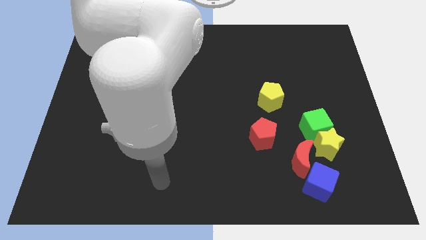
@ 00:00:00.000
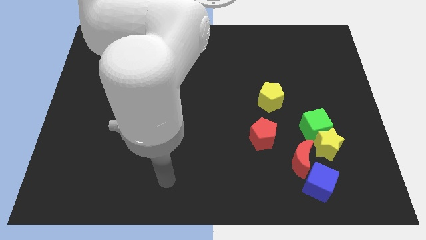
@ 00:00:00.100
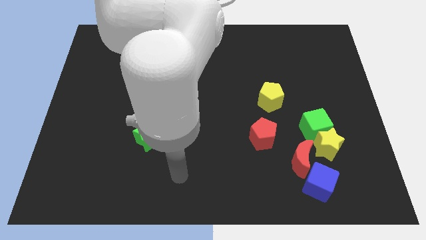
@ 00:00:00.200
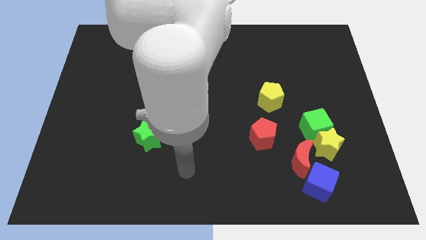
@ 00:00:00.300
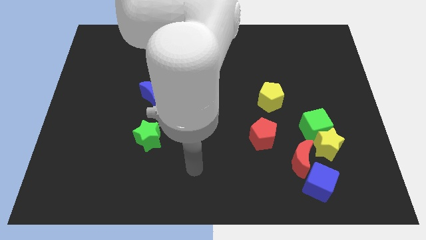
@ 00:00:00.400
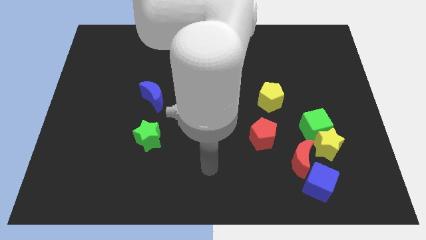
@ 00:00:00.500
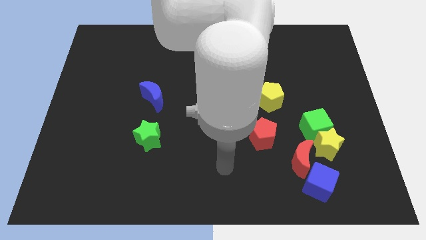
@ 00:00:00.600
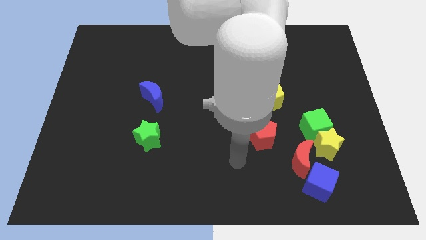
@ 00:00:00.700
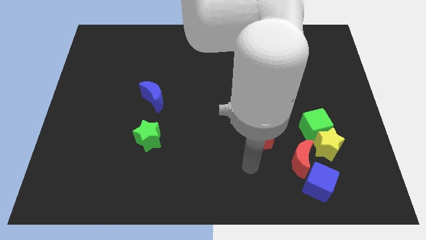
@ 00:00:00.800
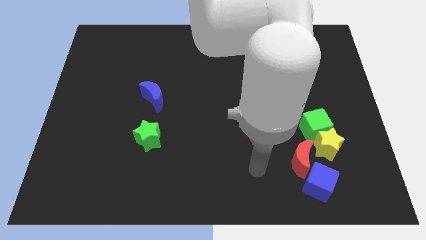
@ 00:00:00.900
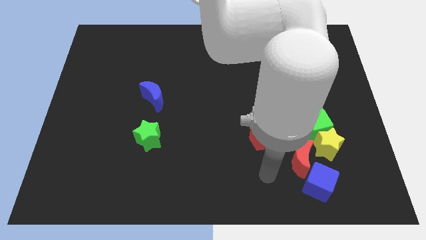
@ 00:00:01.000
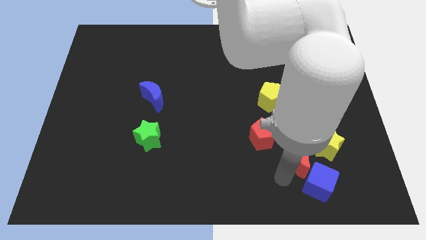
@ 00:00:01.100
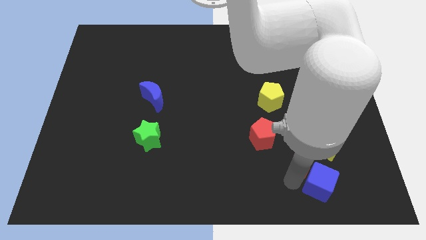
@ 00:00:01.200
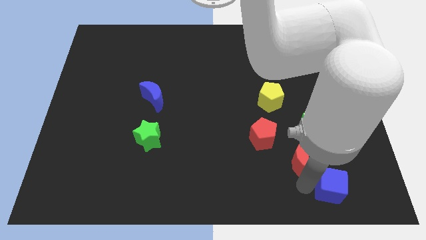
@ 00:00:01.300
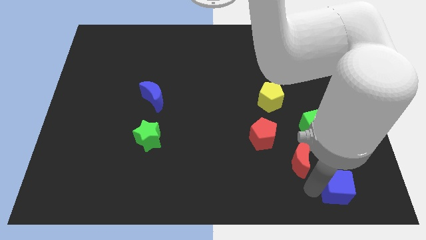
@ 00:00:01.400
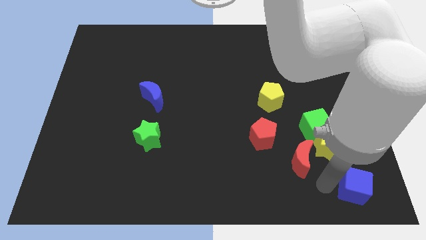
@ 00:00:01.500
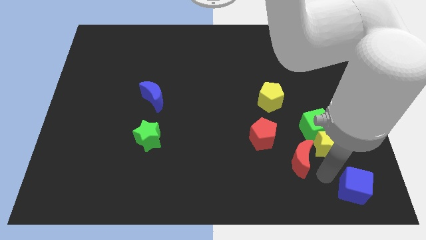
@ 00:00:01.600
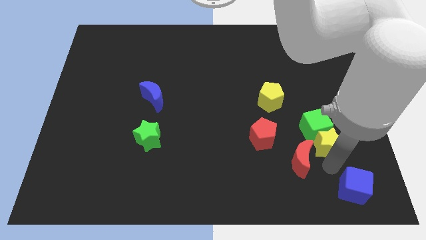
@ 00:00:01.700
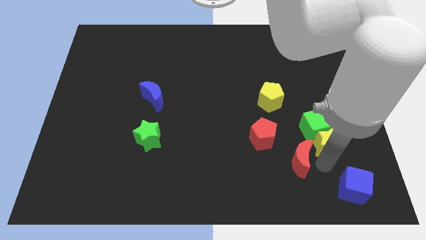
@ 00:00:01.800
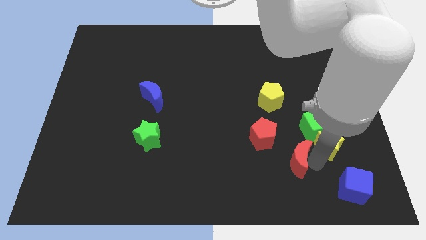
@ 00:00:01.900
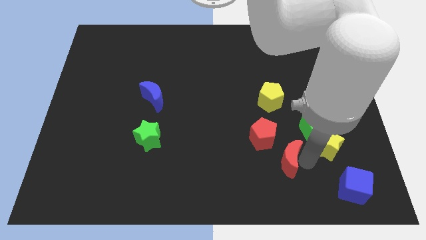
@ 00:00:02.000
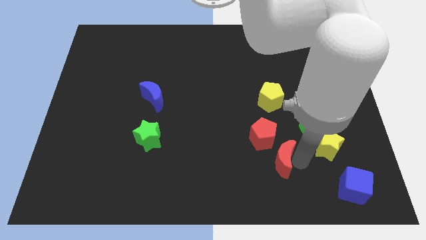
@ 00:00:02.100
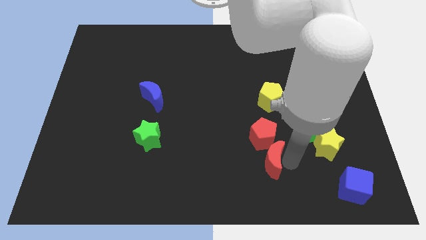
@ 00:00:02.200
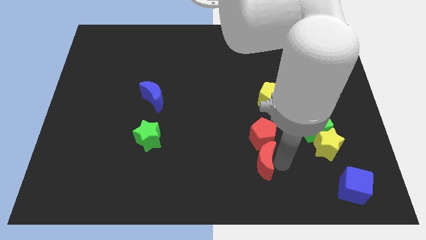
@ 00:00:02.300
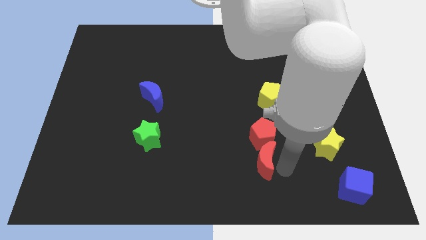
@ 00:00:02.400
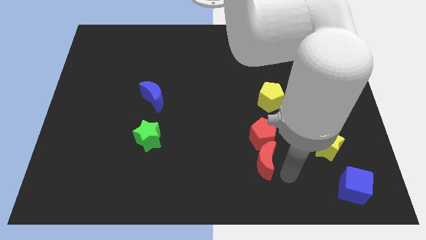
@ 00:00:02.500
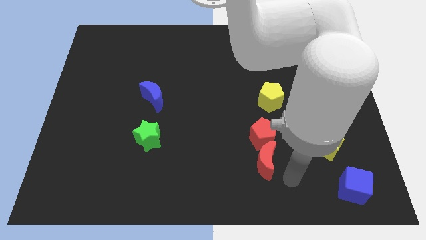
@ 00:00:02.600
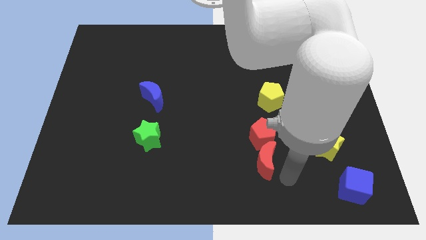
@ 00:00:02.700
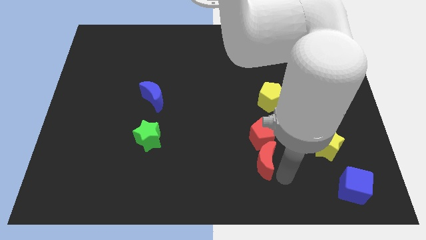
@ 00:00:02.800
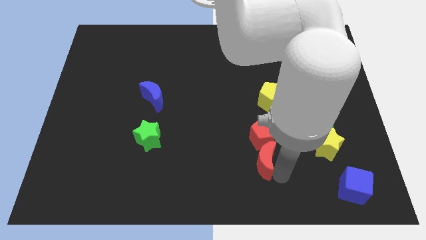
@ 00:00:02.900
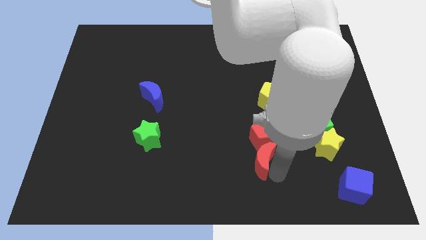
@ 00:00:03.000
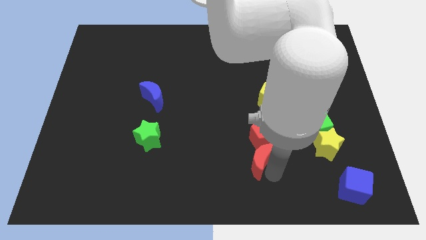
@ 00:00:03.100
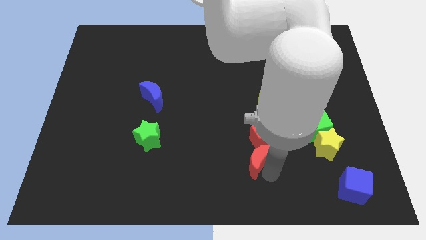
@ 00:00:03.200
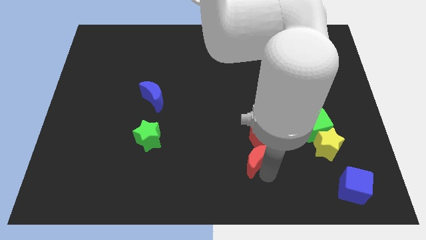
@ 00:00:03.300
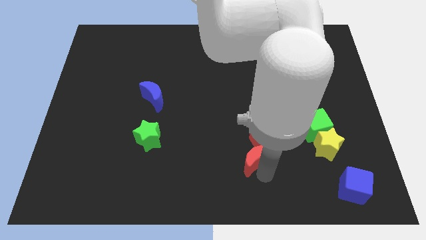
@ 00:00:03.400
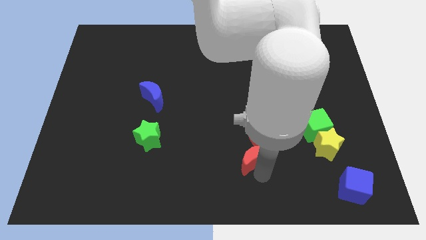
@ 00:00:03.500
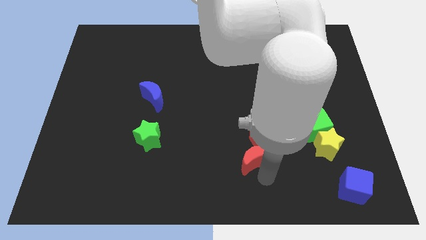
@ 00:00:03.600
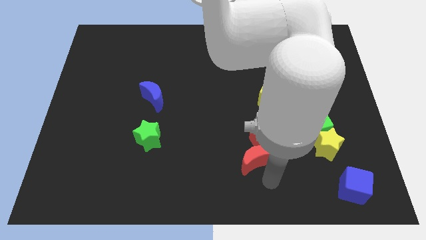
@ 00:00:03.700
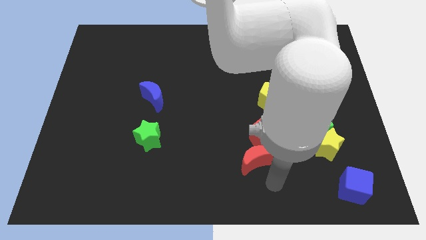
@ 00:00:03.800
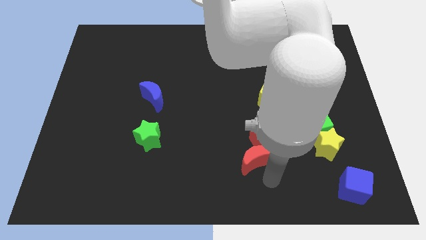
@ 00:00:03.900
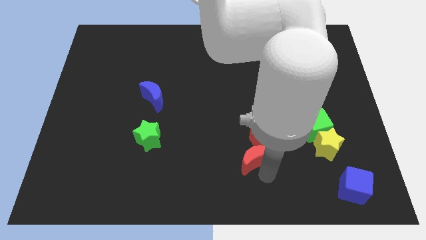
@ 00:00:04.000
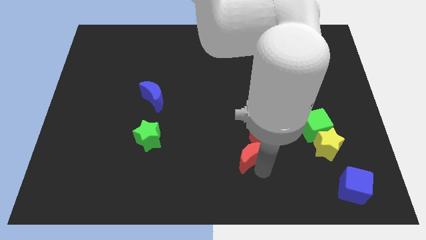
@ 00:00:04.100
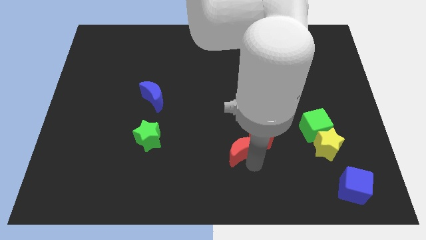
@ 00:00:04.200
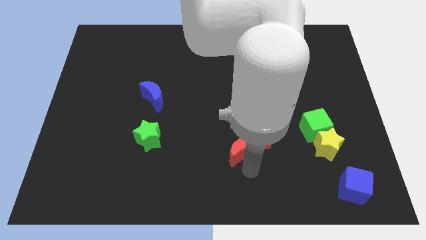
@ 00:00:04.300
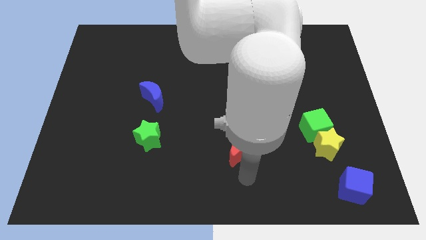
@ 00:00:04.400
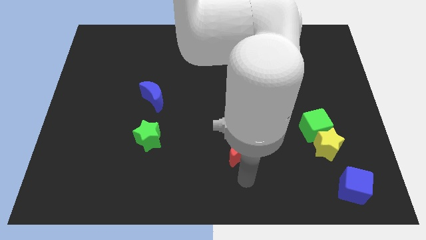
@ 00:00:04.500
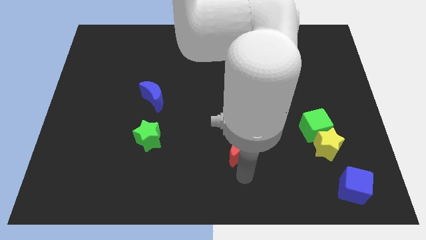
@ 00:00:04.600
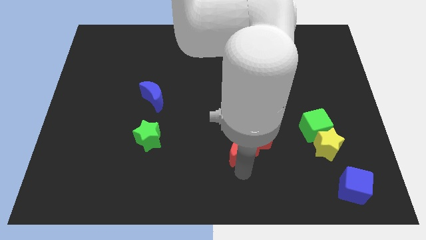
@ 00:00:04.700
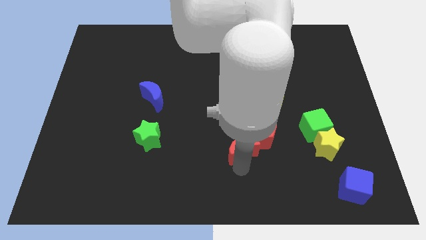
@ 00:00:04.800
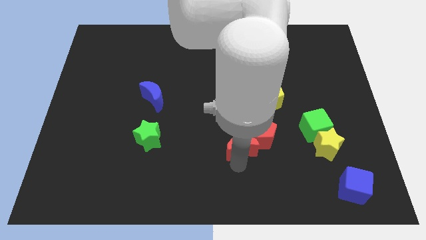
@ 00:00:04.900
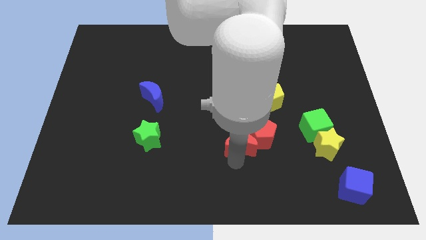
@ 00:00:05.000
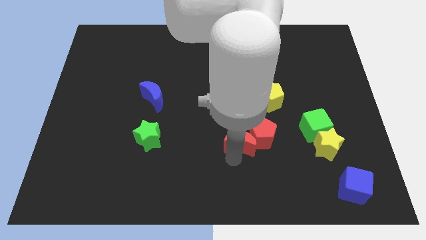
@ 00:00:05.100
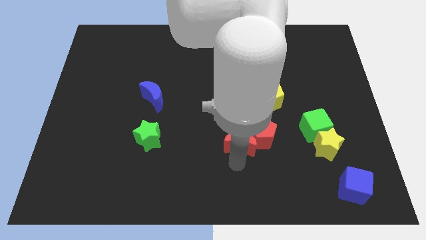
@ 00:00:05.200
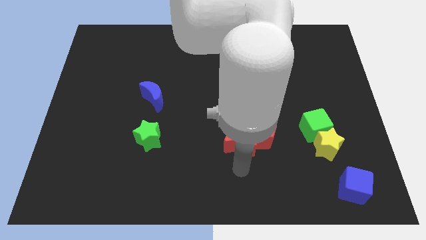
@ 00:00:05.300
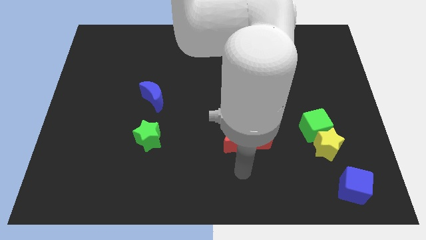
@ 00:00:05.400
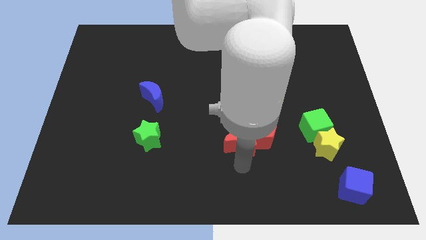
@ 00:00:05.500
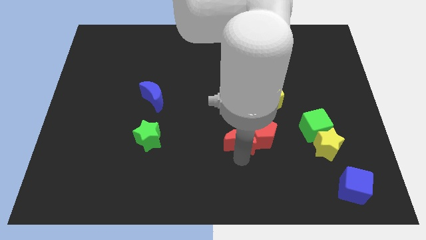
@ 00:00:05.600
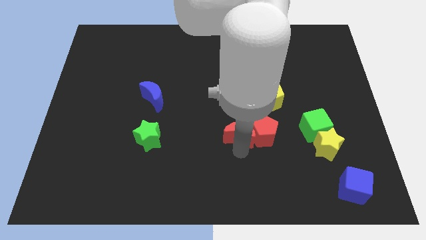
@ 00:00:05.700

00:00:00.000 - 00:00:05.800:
slide the red moon to the top left side of the red pentagon
